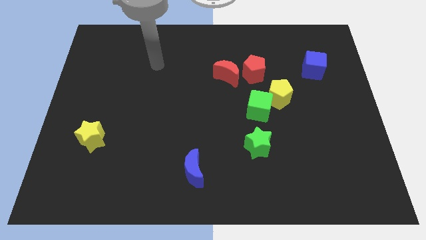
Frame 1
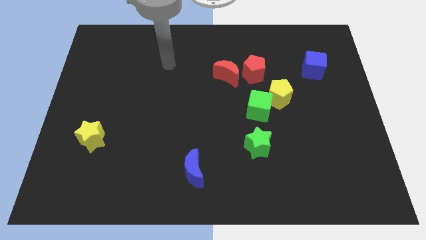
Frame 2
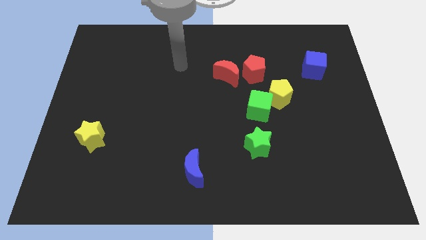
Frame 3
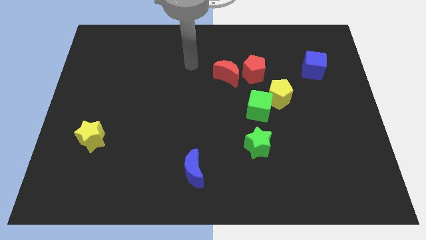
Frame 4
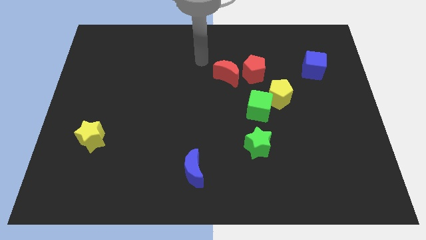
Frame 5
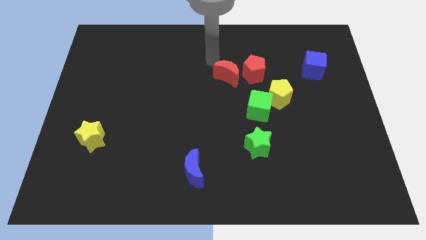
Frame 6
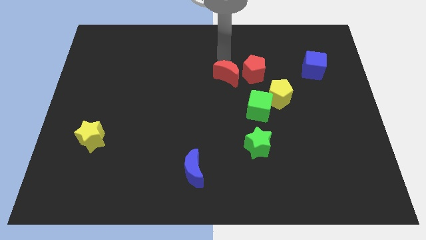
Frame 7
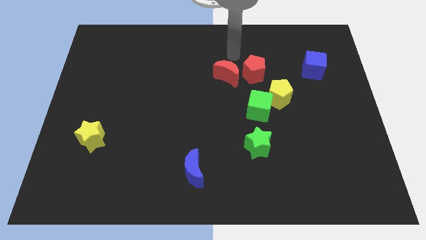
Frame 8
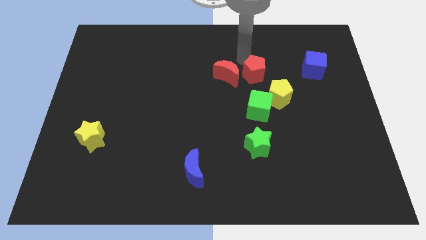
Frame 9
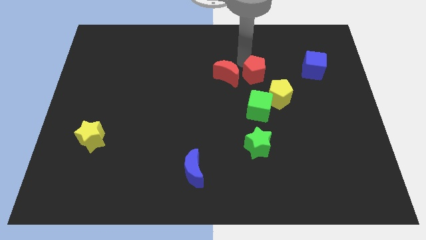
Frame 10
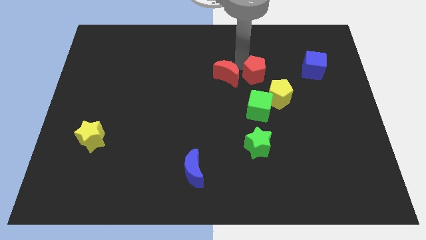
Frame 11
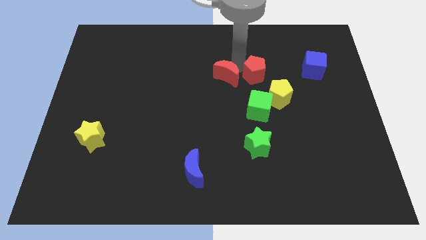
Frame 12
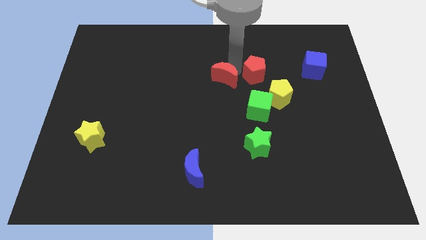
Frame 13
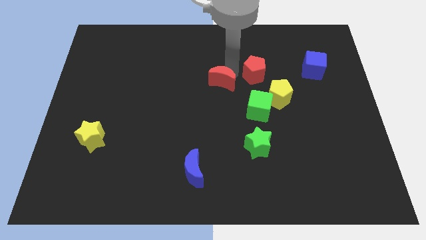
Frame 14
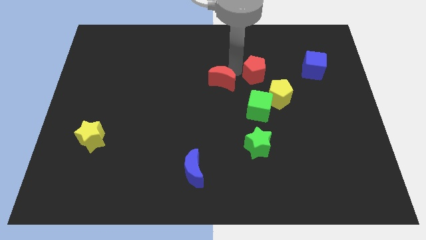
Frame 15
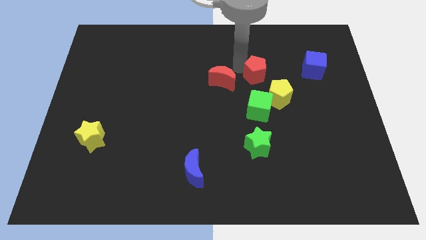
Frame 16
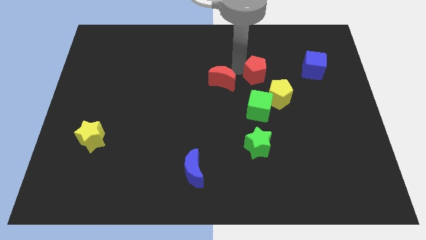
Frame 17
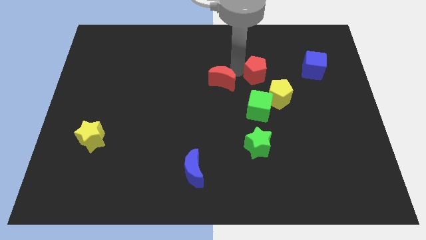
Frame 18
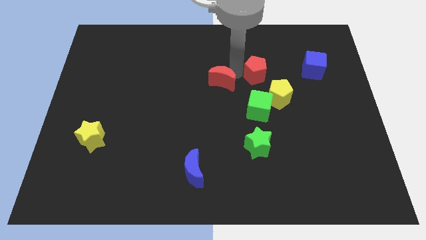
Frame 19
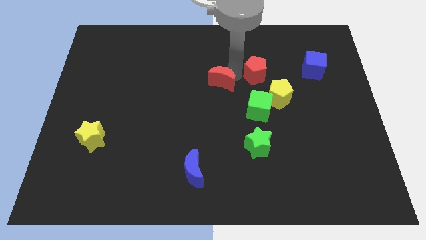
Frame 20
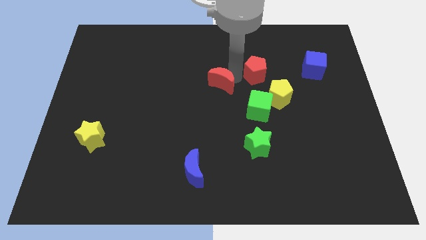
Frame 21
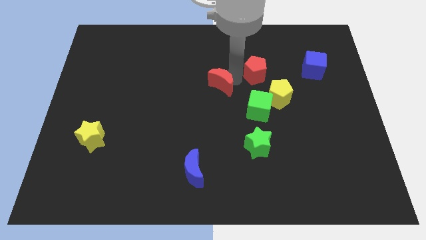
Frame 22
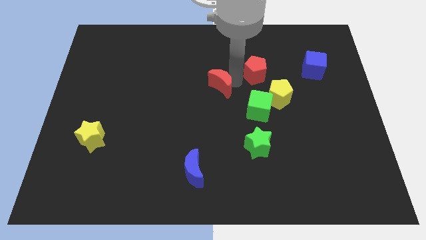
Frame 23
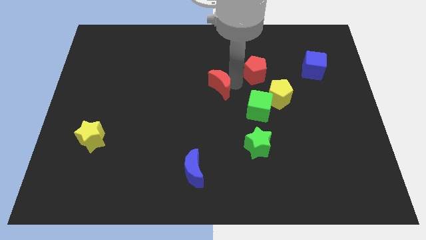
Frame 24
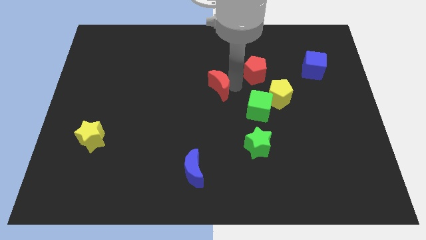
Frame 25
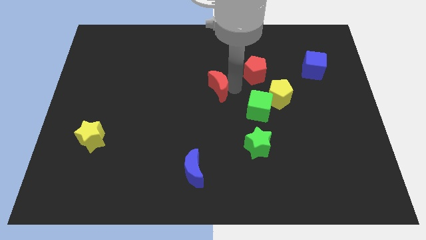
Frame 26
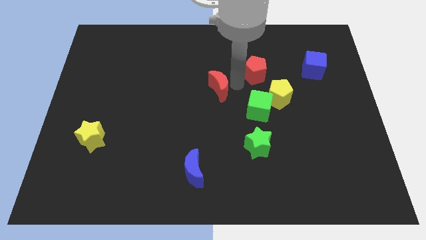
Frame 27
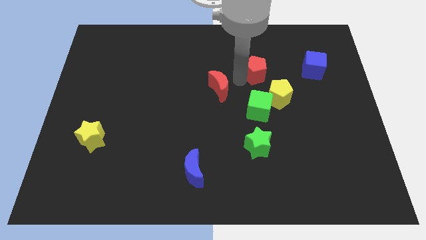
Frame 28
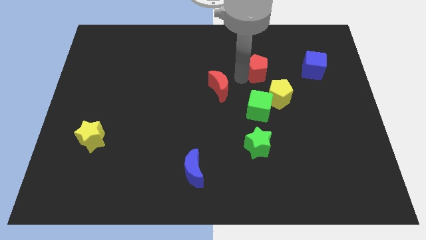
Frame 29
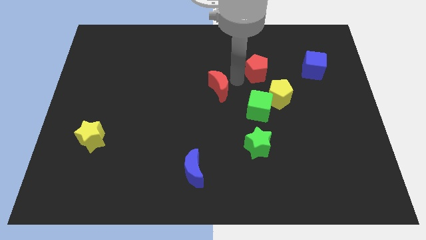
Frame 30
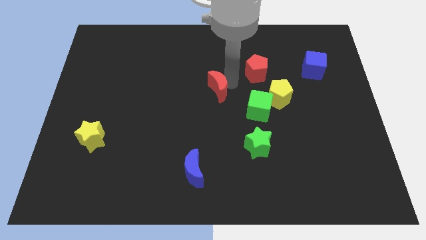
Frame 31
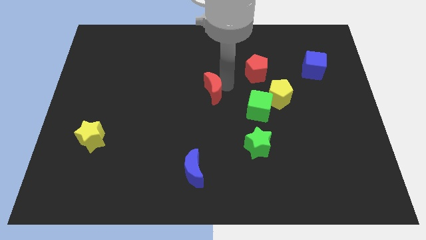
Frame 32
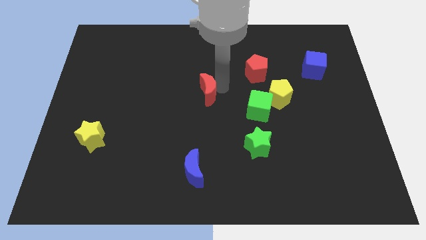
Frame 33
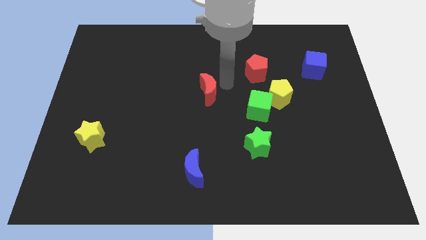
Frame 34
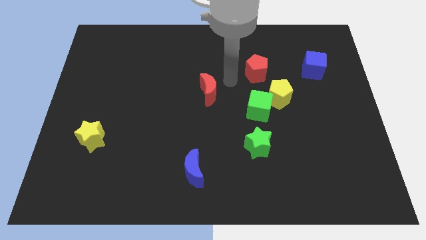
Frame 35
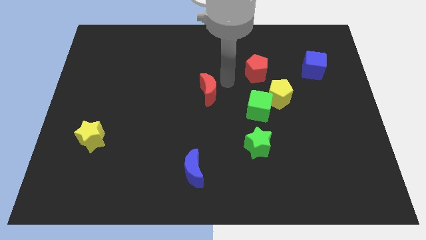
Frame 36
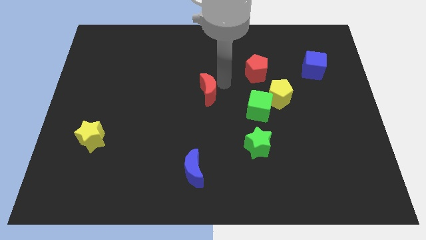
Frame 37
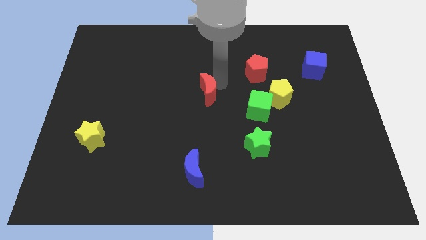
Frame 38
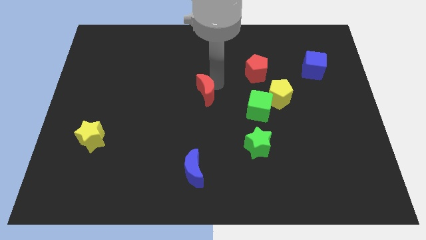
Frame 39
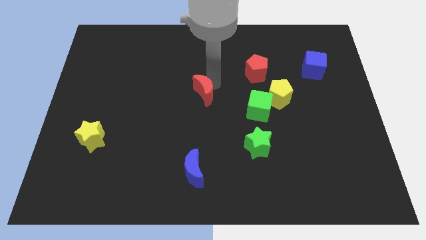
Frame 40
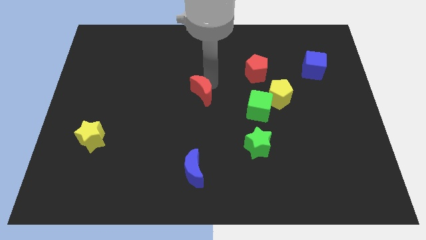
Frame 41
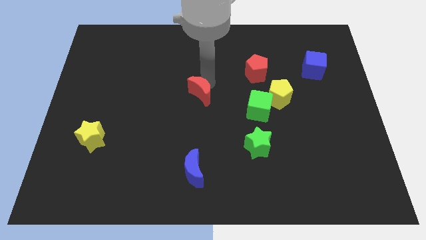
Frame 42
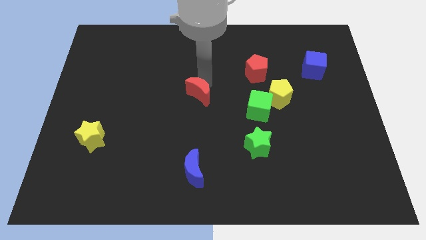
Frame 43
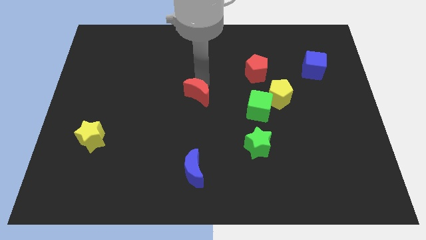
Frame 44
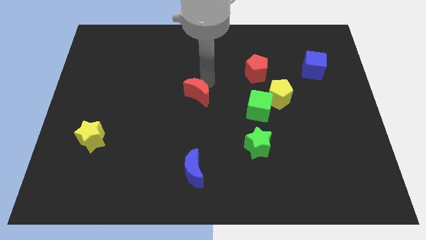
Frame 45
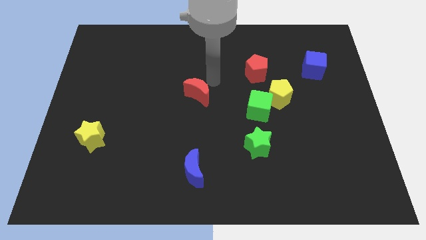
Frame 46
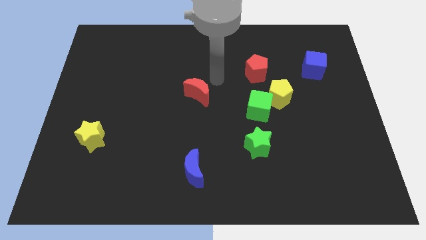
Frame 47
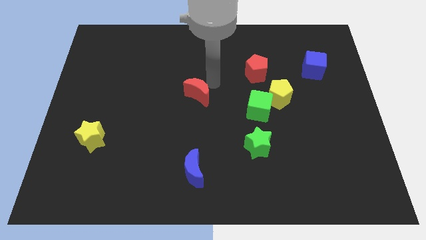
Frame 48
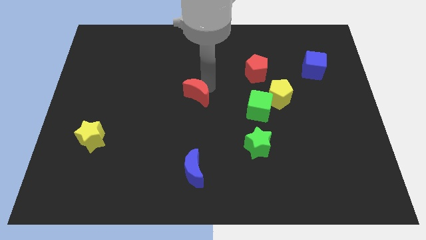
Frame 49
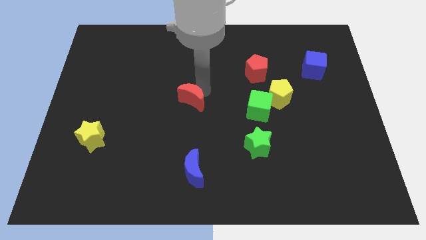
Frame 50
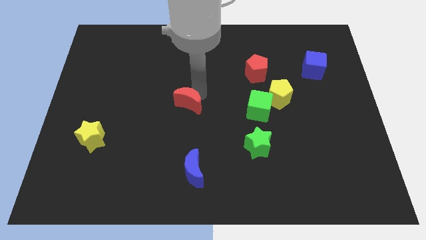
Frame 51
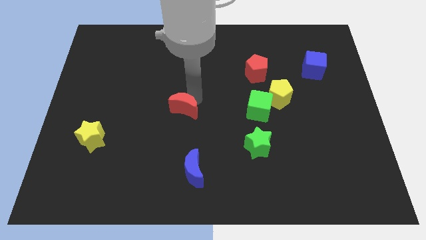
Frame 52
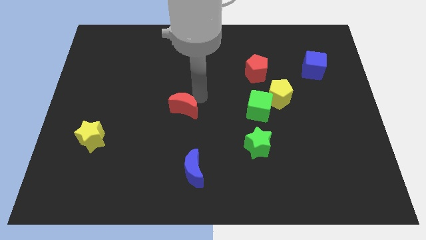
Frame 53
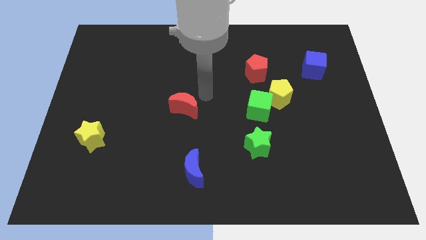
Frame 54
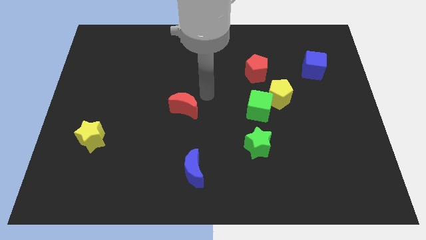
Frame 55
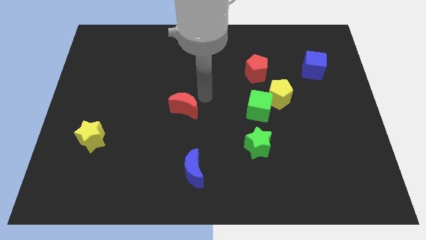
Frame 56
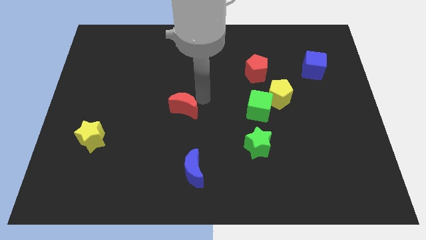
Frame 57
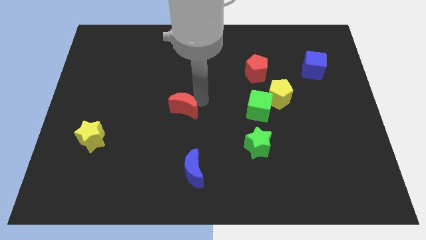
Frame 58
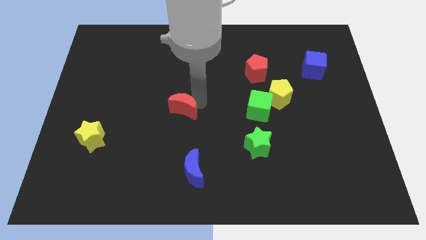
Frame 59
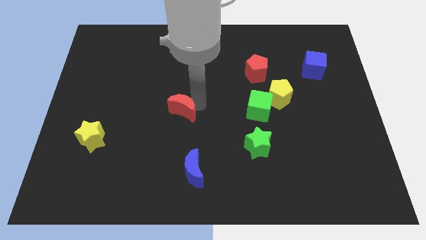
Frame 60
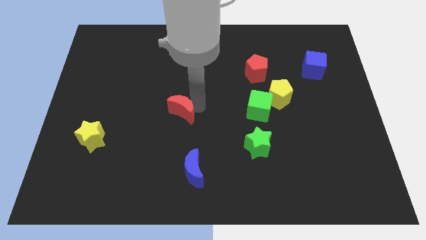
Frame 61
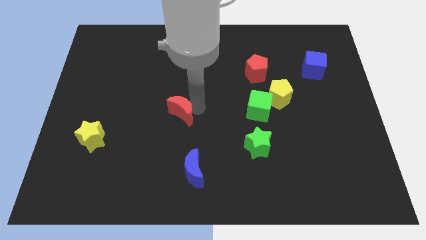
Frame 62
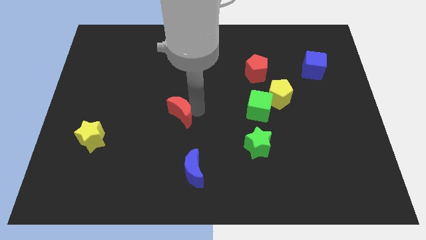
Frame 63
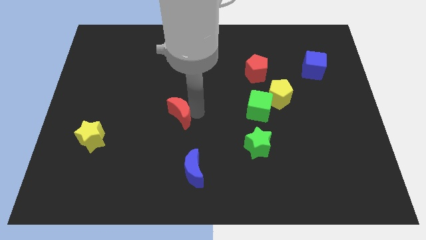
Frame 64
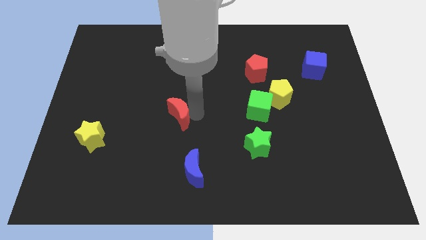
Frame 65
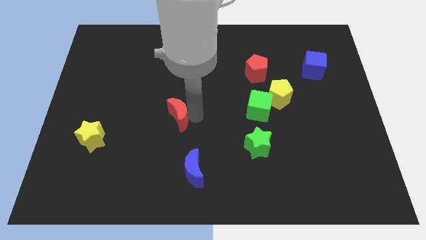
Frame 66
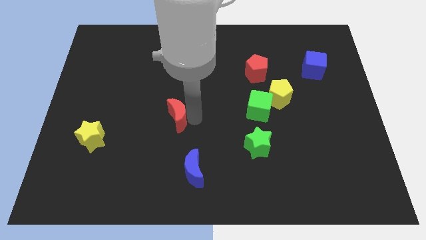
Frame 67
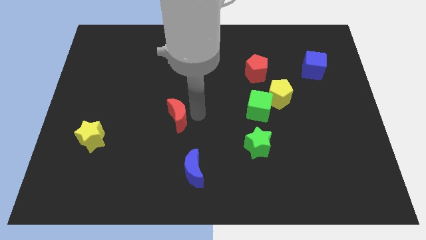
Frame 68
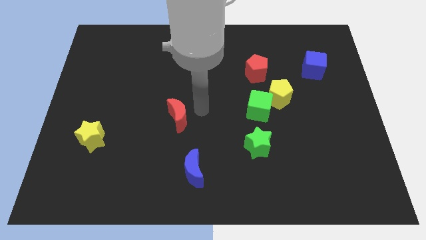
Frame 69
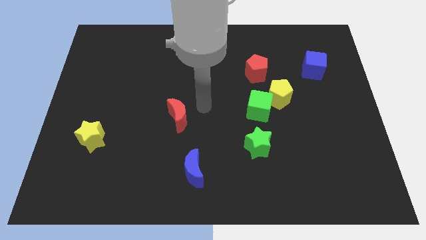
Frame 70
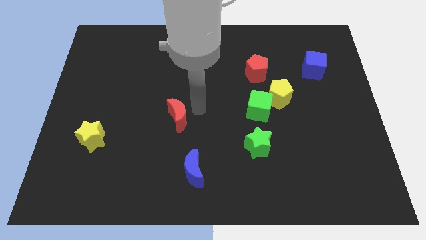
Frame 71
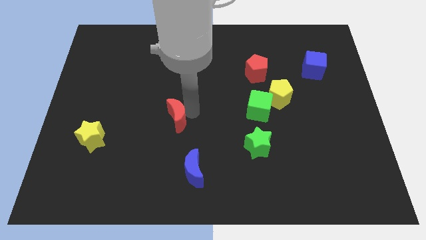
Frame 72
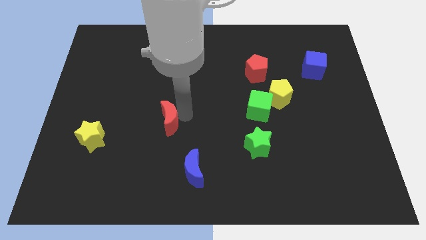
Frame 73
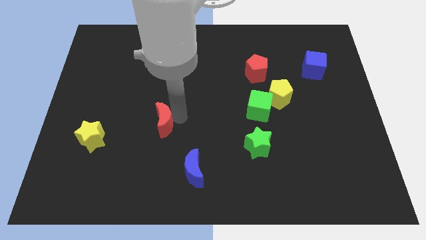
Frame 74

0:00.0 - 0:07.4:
push the red moon diagonally down and left

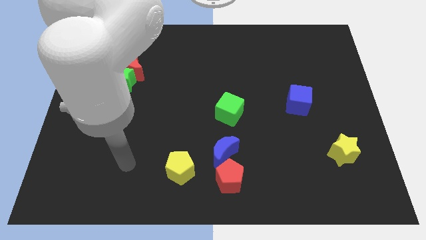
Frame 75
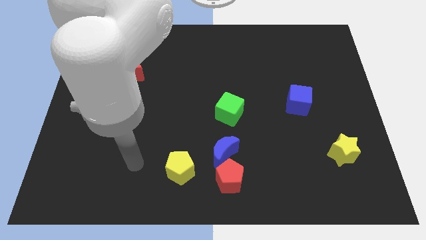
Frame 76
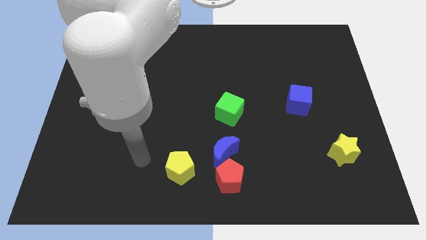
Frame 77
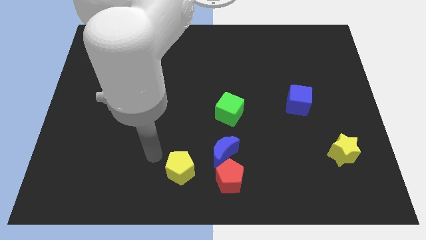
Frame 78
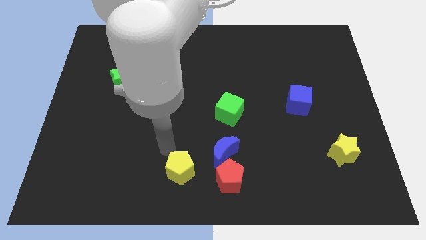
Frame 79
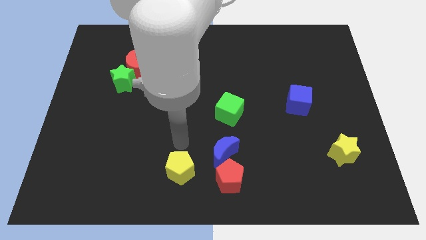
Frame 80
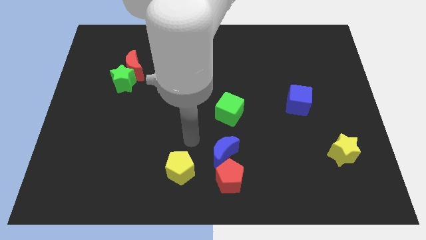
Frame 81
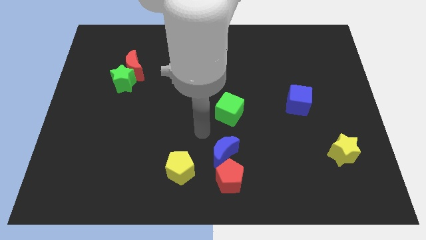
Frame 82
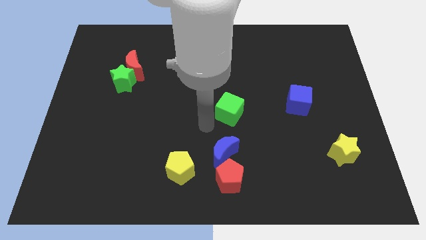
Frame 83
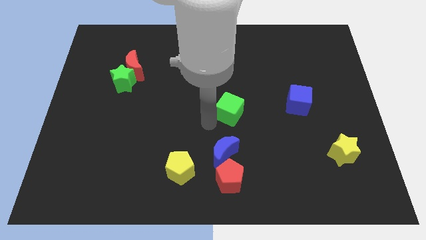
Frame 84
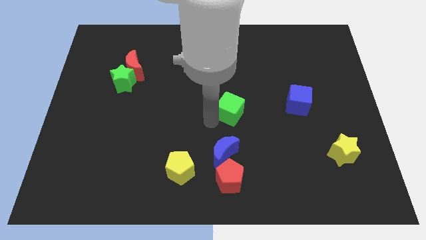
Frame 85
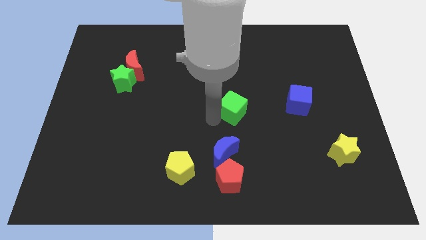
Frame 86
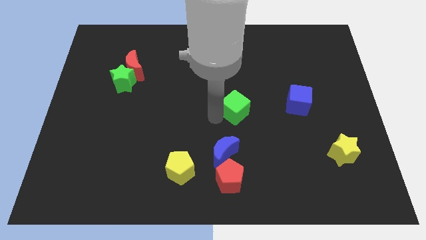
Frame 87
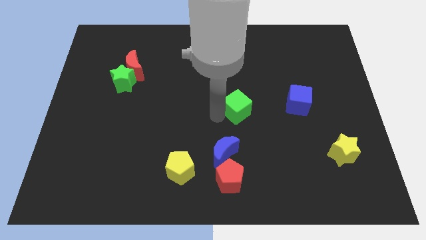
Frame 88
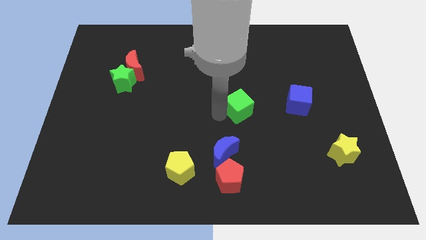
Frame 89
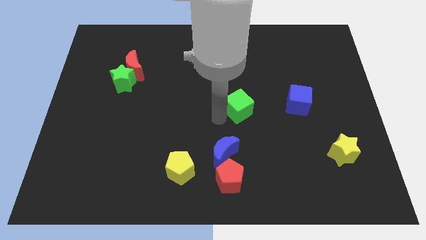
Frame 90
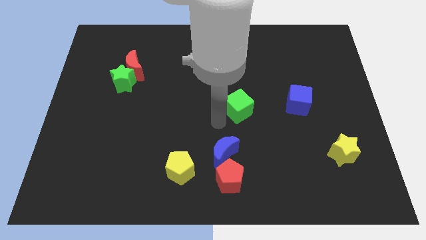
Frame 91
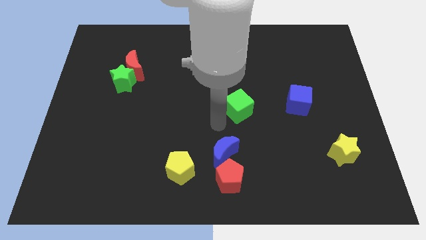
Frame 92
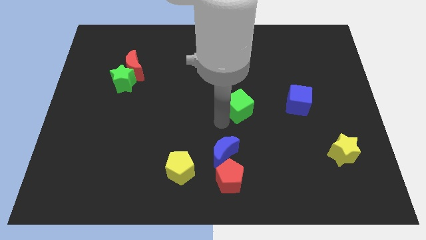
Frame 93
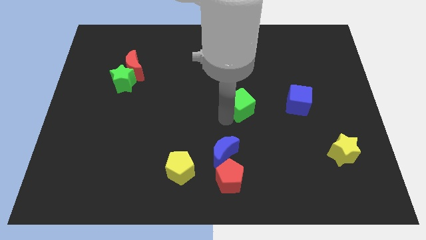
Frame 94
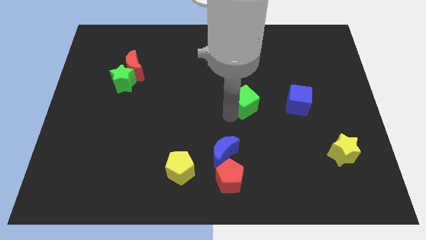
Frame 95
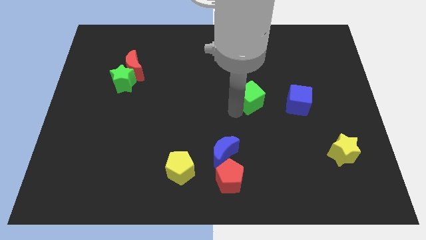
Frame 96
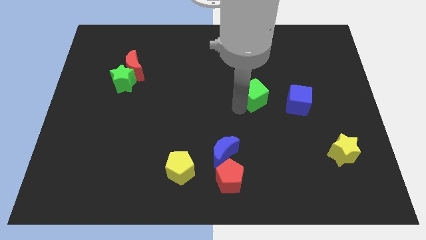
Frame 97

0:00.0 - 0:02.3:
slide the green cube upwards and to the right diagonally a bit
